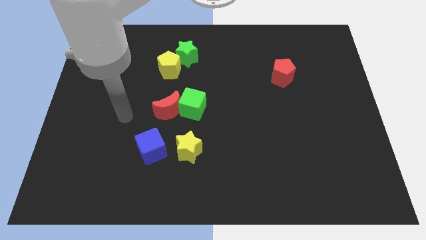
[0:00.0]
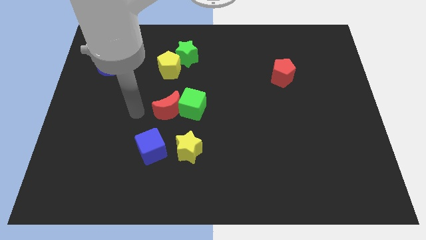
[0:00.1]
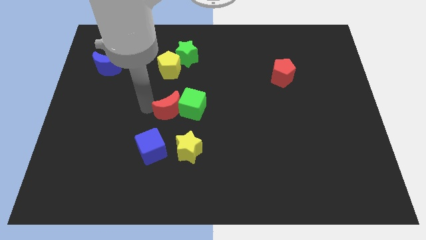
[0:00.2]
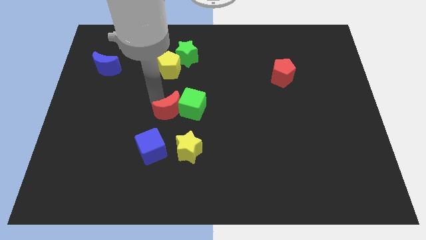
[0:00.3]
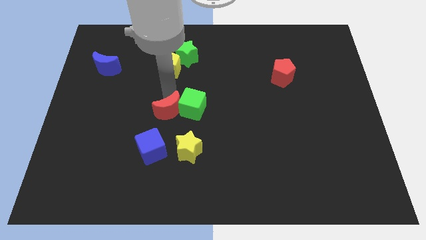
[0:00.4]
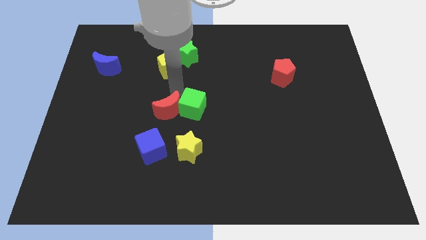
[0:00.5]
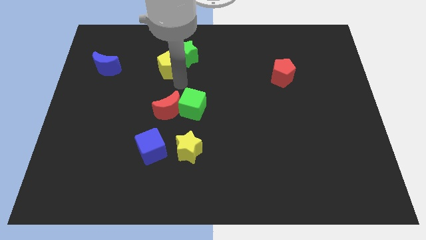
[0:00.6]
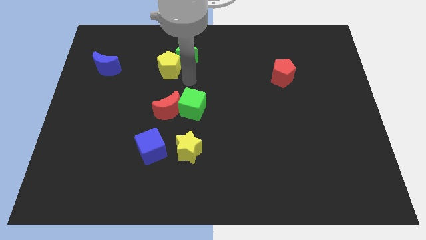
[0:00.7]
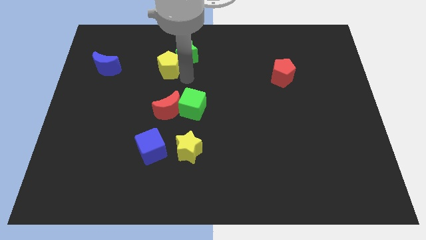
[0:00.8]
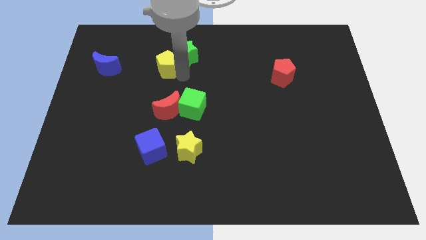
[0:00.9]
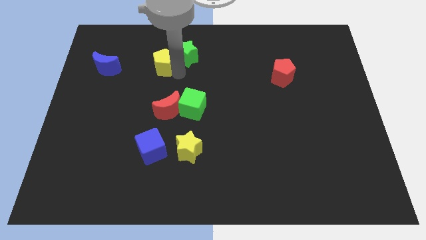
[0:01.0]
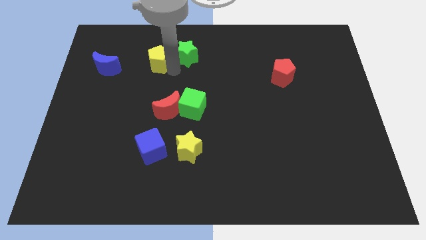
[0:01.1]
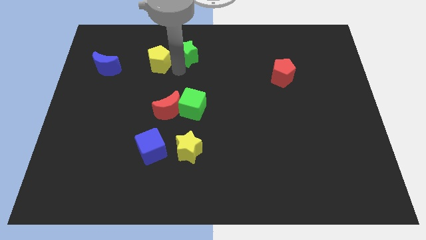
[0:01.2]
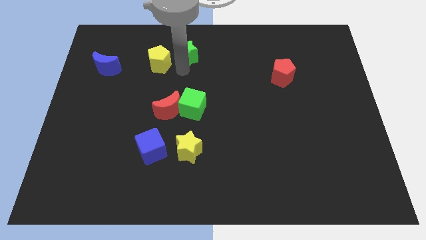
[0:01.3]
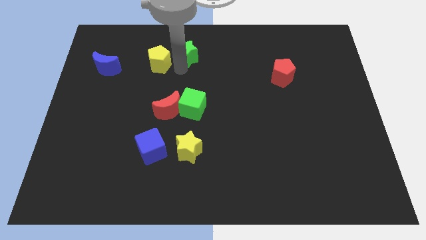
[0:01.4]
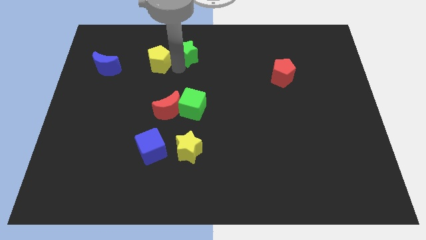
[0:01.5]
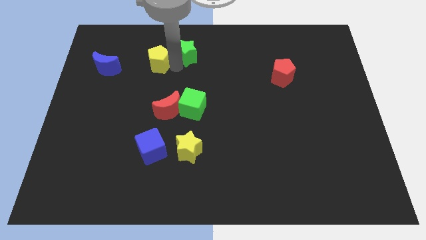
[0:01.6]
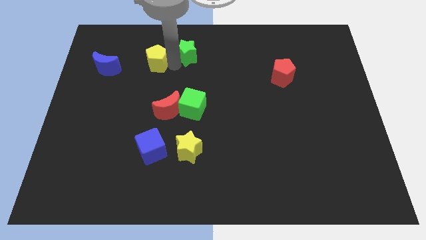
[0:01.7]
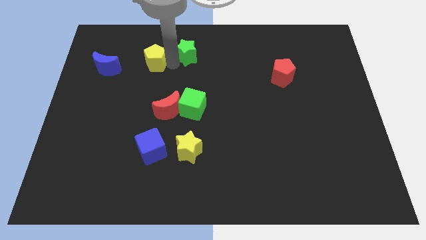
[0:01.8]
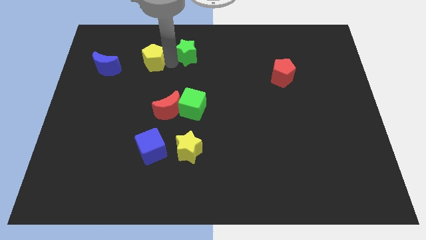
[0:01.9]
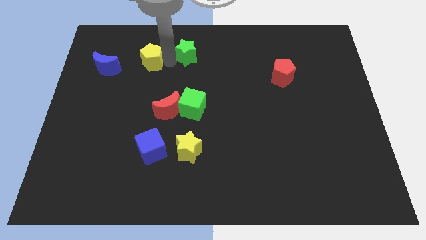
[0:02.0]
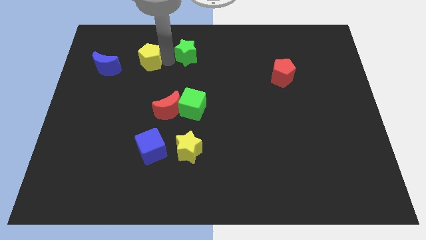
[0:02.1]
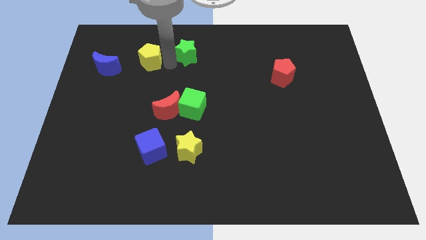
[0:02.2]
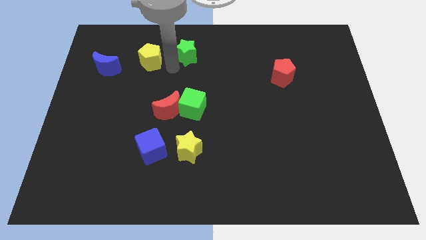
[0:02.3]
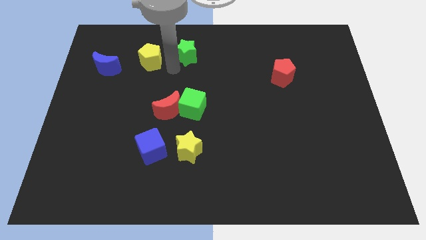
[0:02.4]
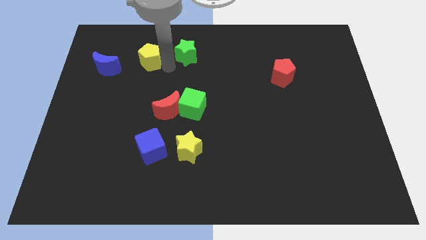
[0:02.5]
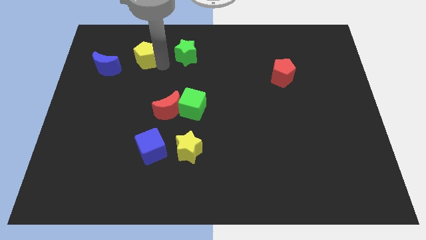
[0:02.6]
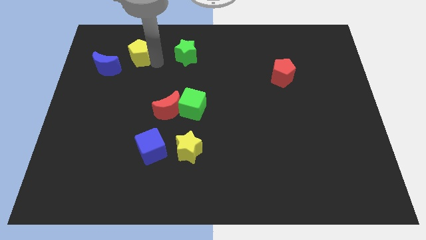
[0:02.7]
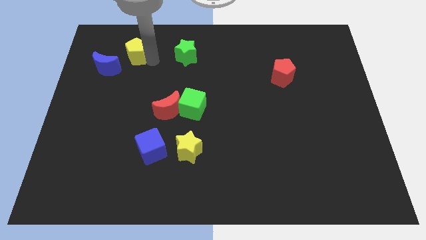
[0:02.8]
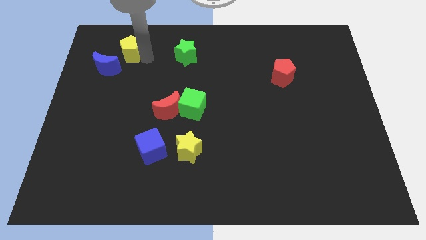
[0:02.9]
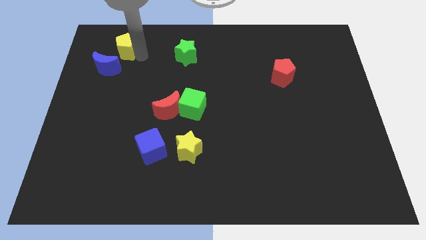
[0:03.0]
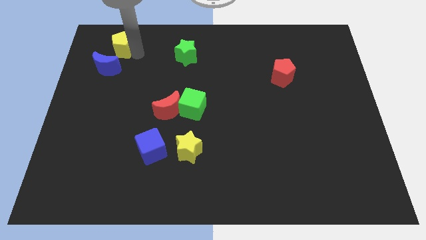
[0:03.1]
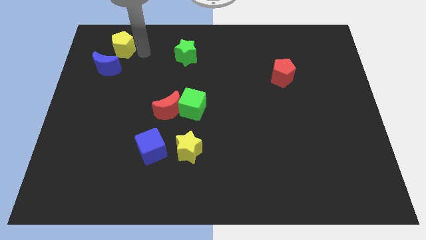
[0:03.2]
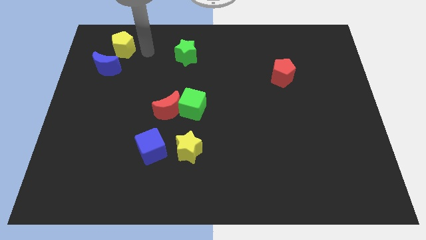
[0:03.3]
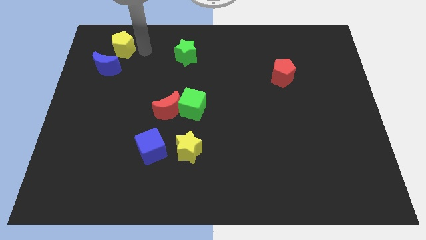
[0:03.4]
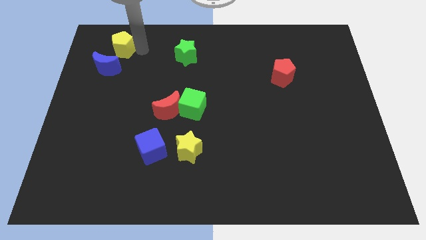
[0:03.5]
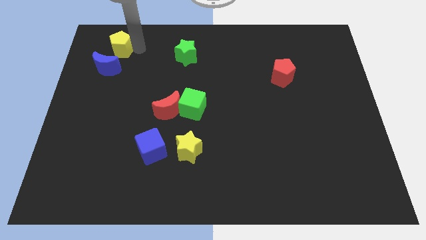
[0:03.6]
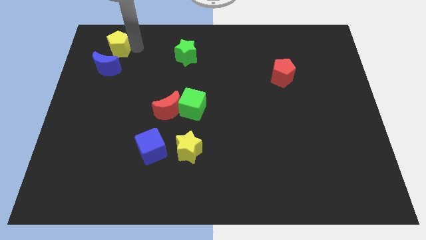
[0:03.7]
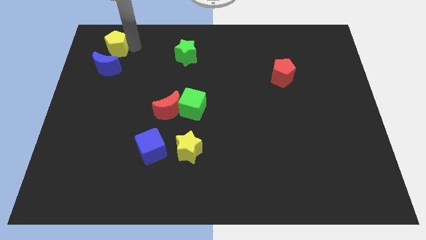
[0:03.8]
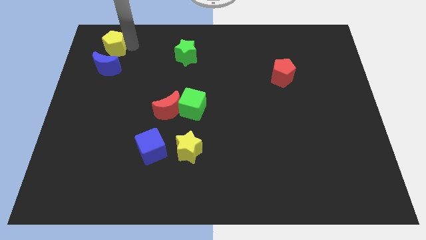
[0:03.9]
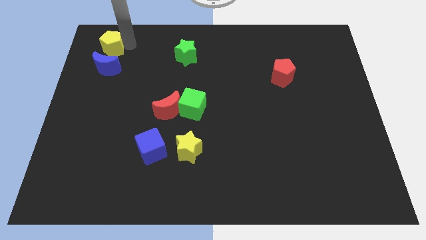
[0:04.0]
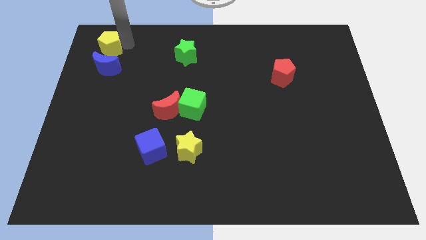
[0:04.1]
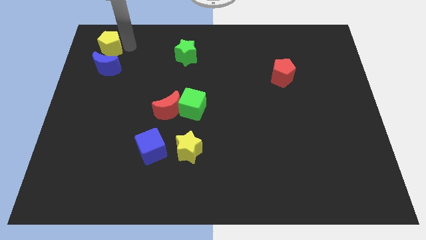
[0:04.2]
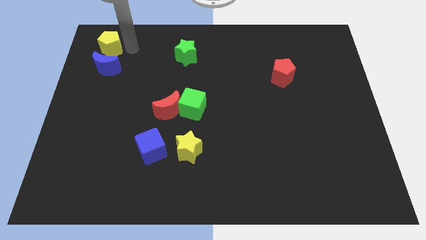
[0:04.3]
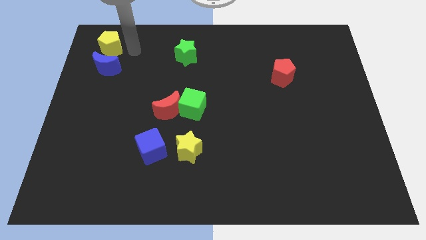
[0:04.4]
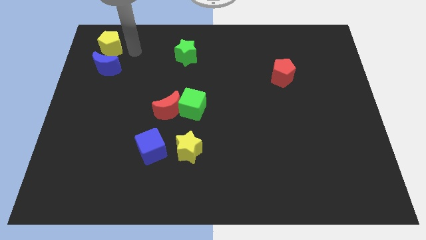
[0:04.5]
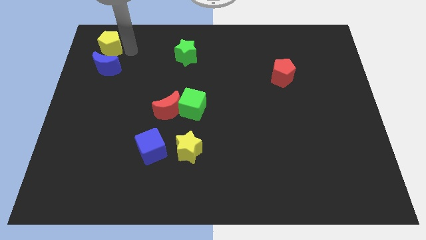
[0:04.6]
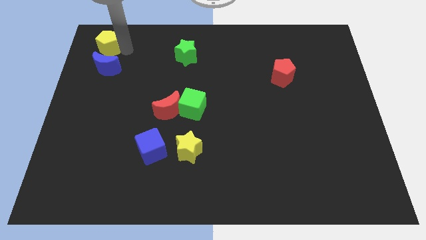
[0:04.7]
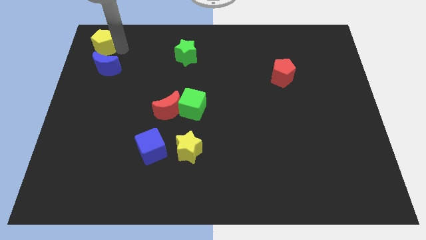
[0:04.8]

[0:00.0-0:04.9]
put the yellow pentagon to the top left of the board

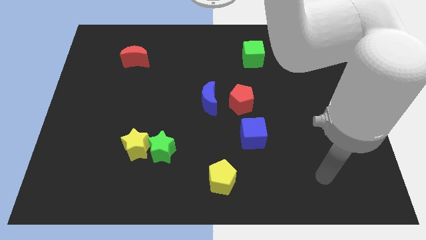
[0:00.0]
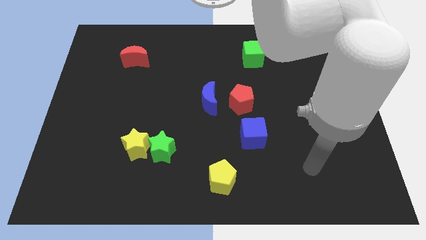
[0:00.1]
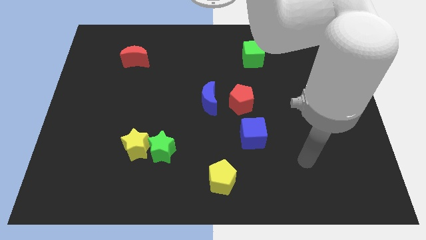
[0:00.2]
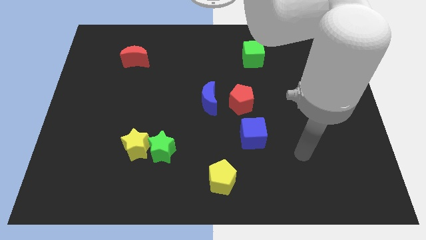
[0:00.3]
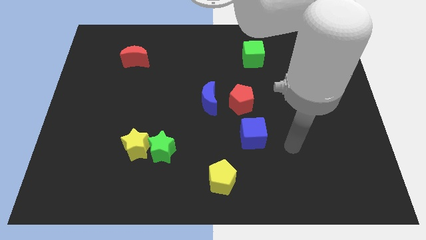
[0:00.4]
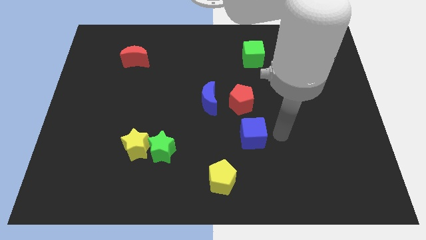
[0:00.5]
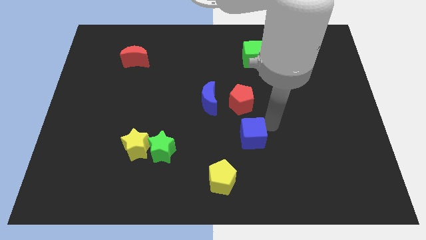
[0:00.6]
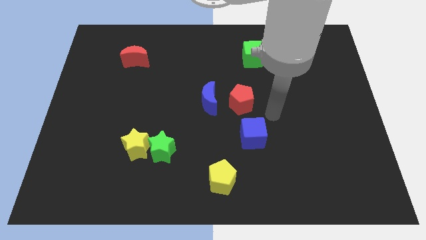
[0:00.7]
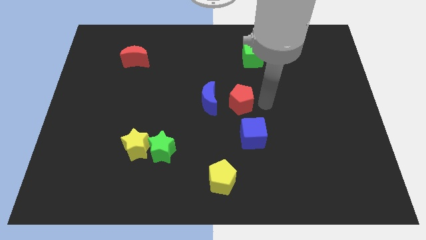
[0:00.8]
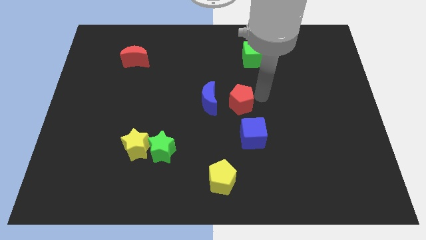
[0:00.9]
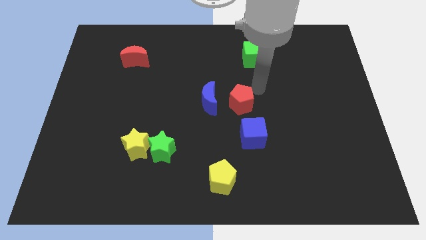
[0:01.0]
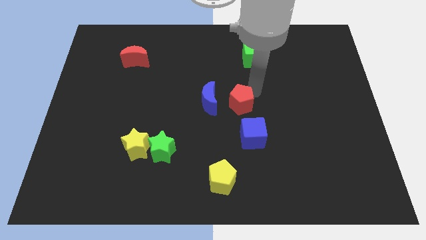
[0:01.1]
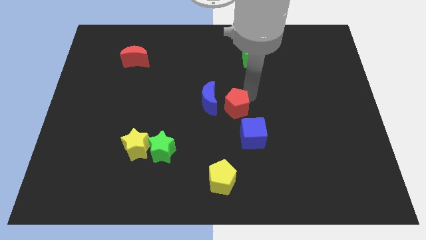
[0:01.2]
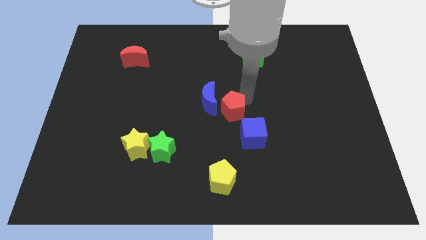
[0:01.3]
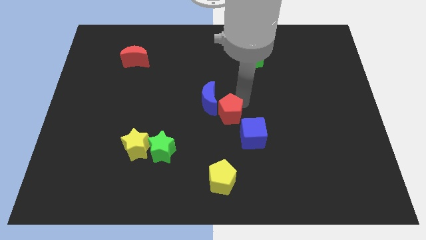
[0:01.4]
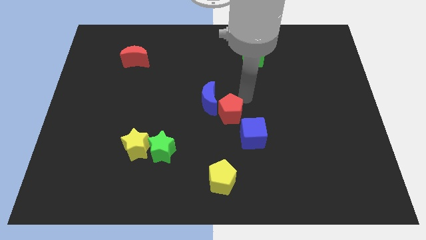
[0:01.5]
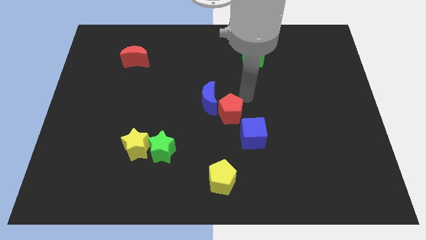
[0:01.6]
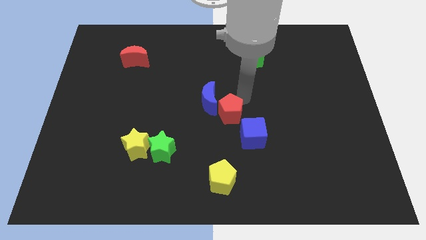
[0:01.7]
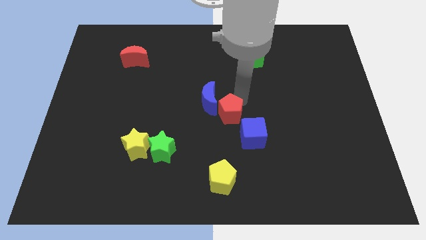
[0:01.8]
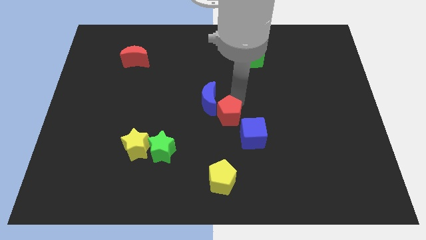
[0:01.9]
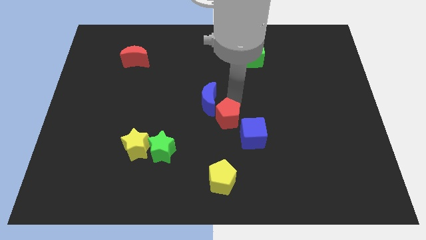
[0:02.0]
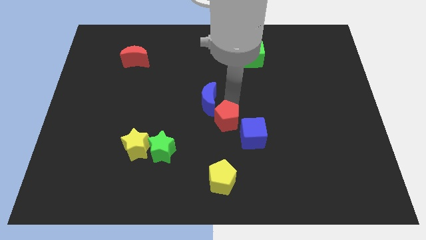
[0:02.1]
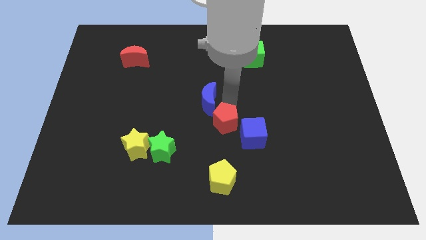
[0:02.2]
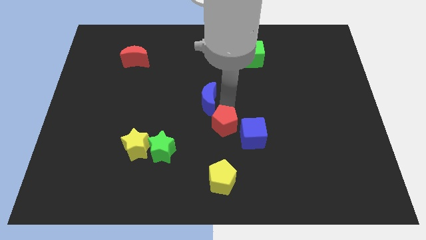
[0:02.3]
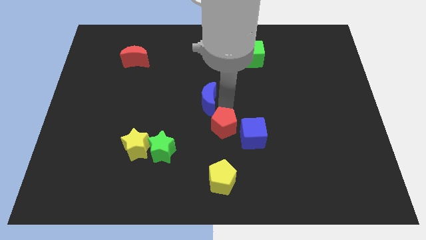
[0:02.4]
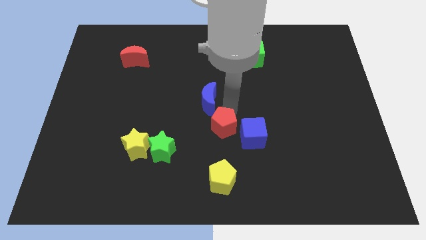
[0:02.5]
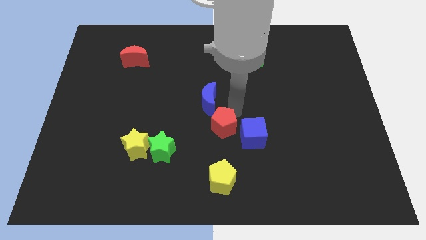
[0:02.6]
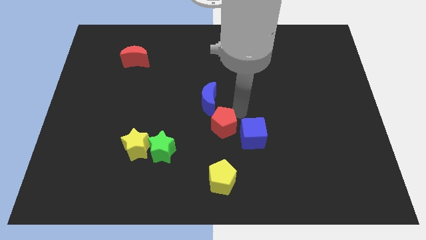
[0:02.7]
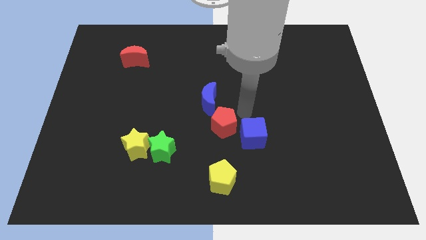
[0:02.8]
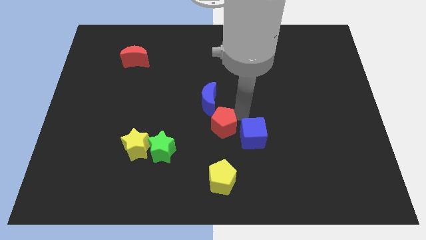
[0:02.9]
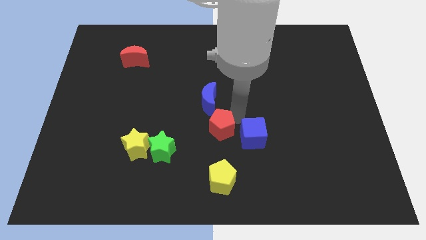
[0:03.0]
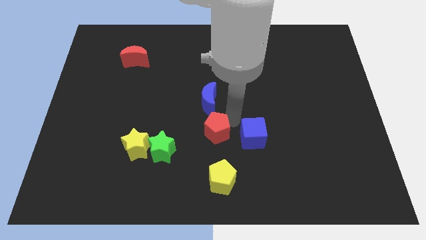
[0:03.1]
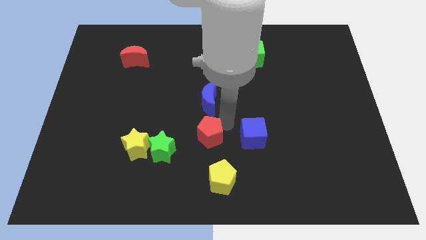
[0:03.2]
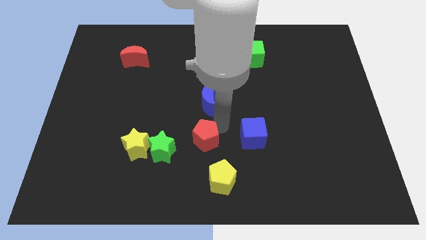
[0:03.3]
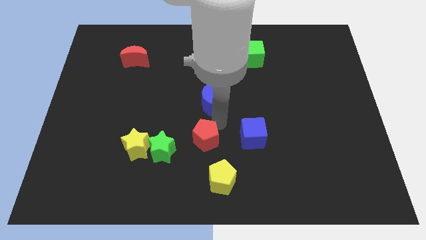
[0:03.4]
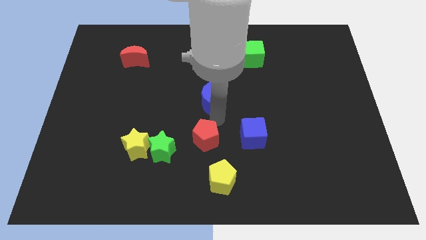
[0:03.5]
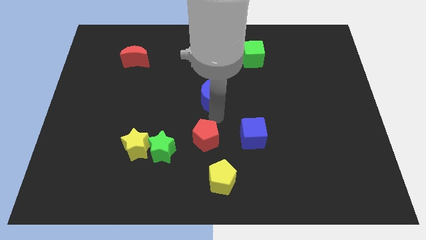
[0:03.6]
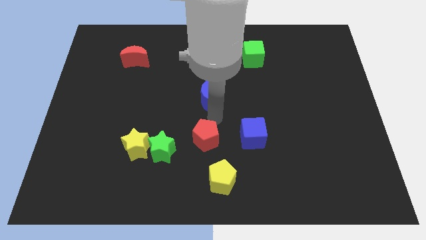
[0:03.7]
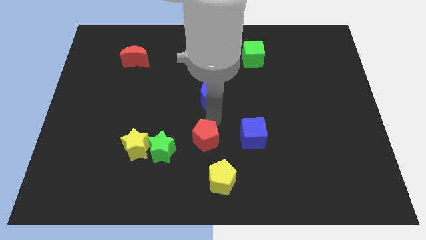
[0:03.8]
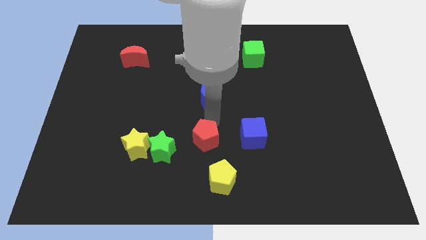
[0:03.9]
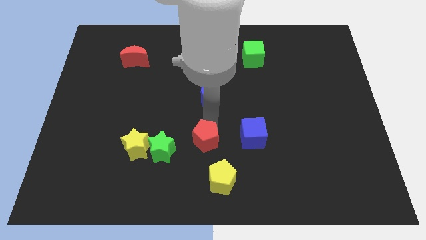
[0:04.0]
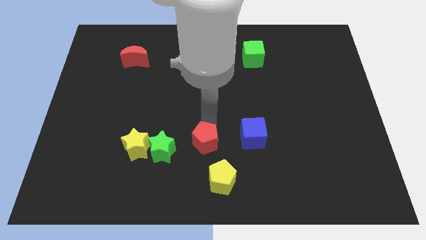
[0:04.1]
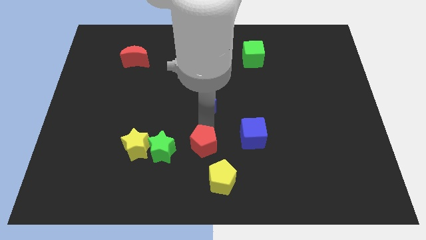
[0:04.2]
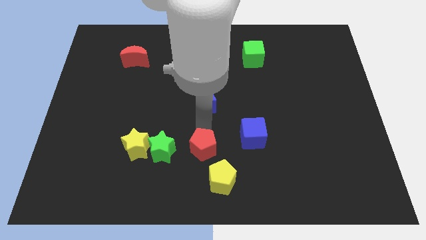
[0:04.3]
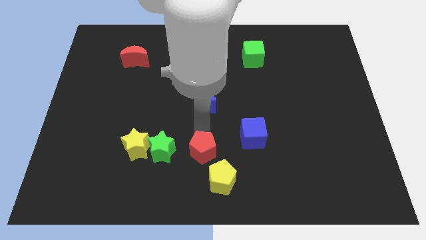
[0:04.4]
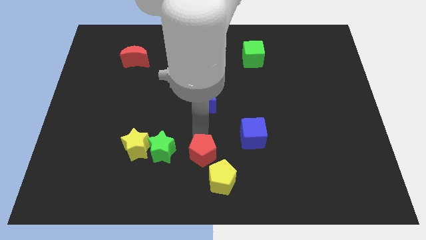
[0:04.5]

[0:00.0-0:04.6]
put the red pentagon to the bottom side
